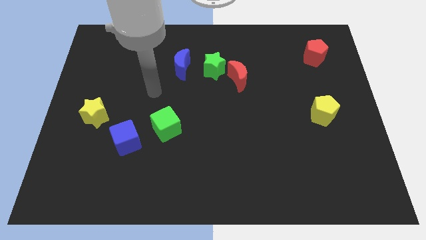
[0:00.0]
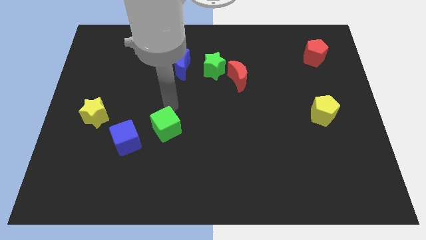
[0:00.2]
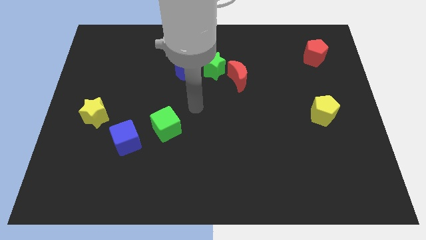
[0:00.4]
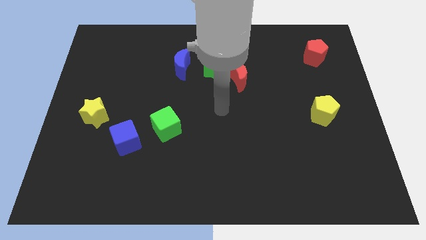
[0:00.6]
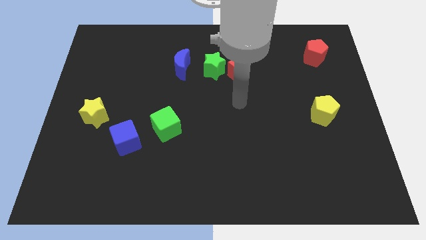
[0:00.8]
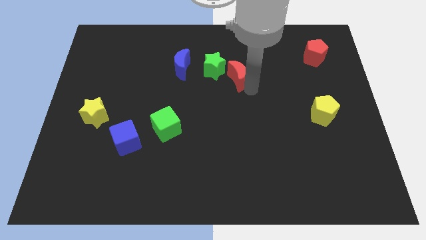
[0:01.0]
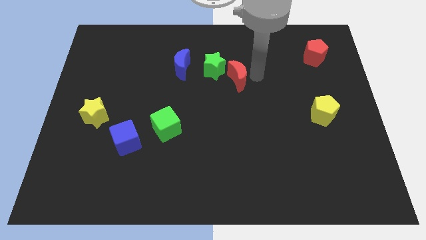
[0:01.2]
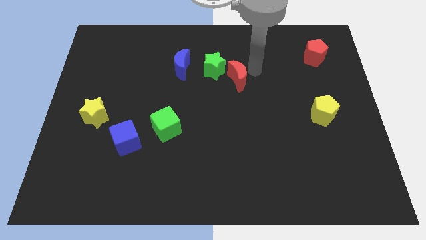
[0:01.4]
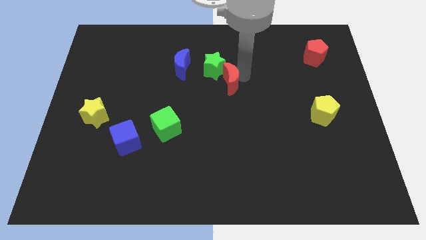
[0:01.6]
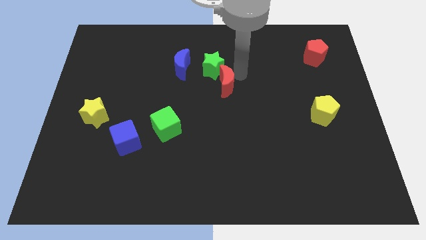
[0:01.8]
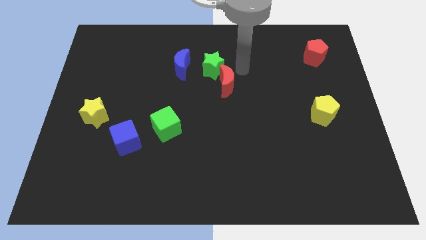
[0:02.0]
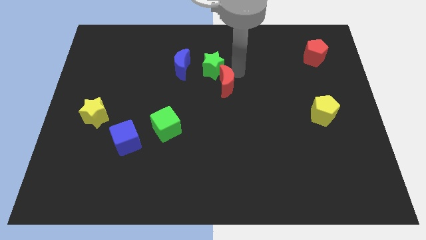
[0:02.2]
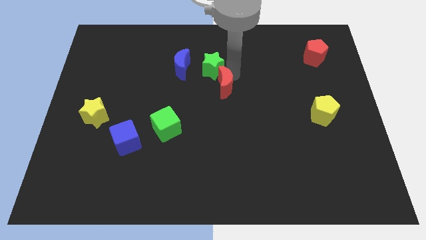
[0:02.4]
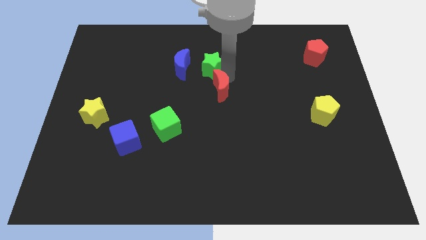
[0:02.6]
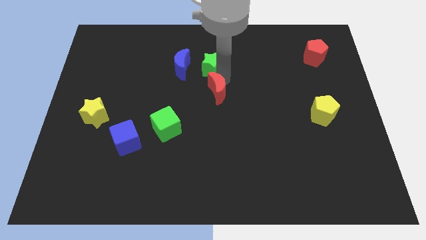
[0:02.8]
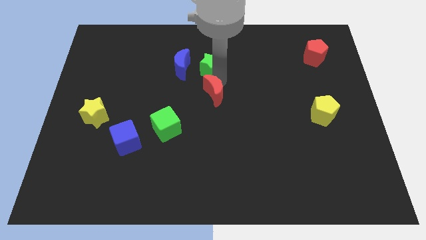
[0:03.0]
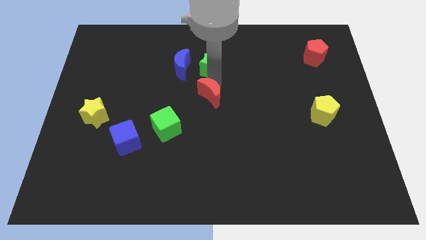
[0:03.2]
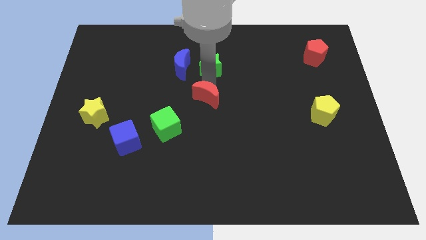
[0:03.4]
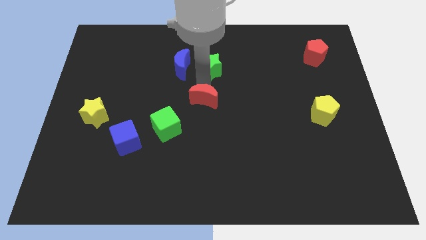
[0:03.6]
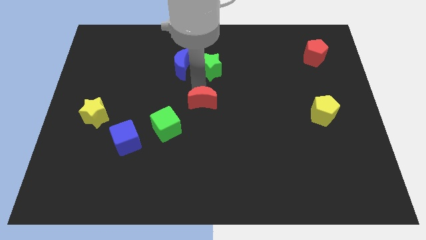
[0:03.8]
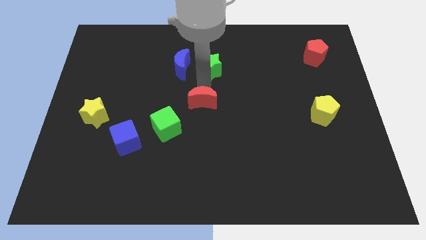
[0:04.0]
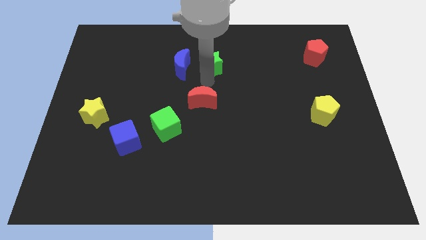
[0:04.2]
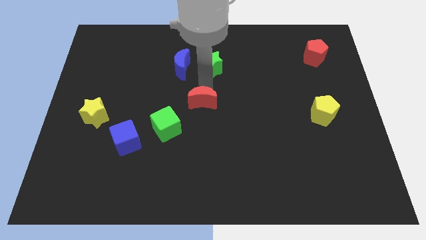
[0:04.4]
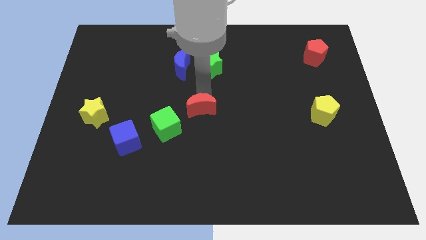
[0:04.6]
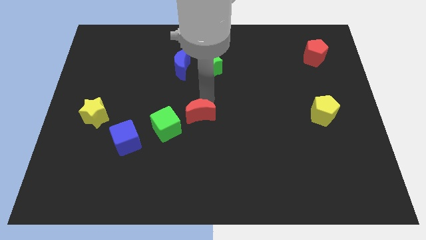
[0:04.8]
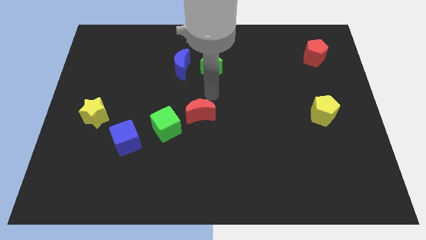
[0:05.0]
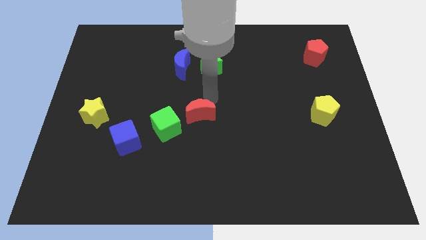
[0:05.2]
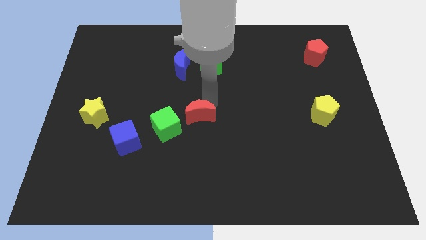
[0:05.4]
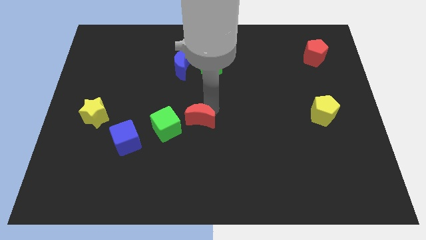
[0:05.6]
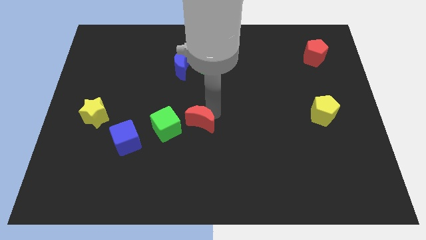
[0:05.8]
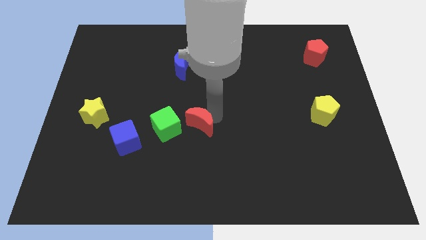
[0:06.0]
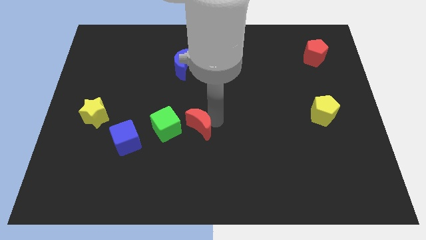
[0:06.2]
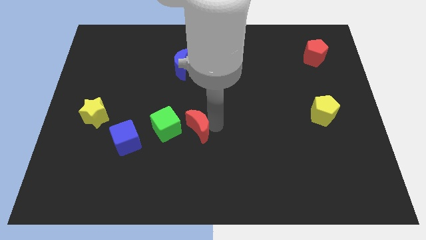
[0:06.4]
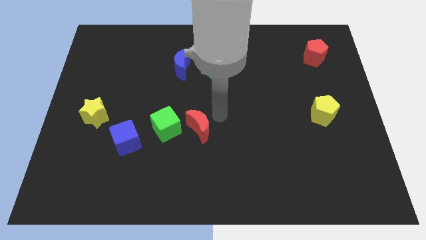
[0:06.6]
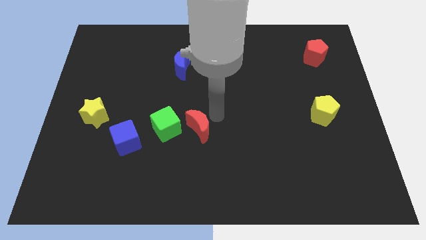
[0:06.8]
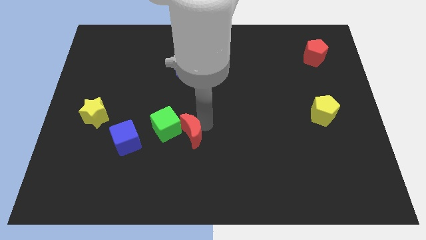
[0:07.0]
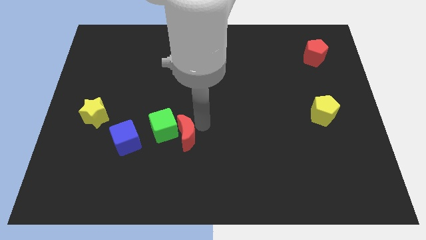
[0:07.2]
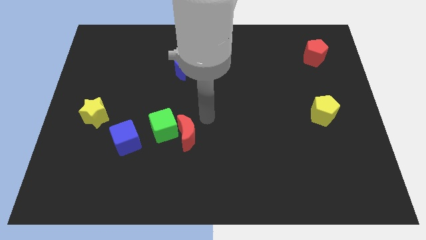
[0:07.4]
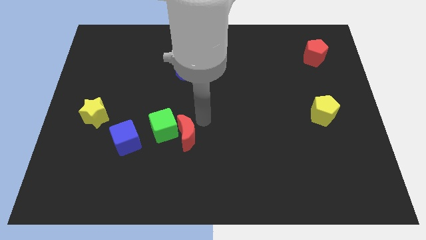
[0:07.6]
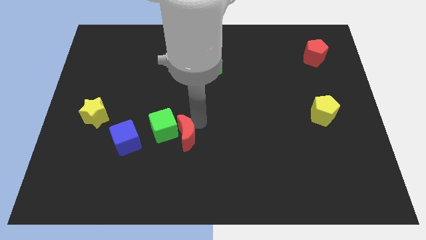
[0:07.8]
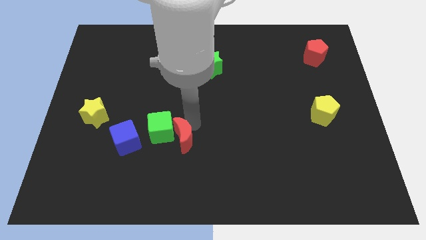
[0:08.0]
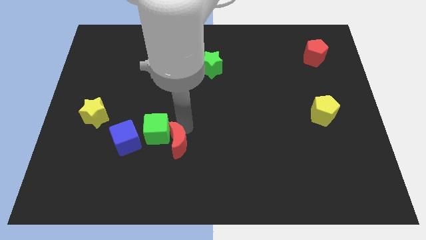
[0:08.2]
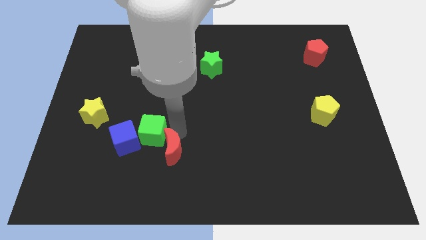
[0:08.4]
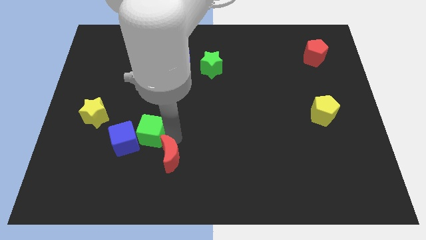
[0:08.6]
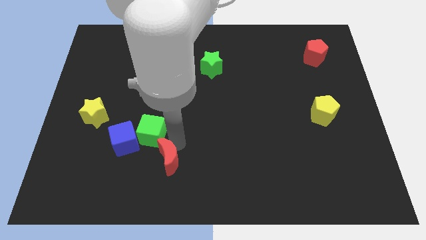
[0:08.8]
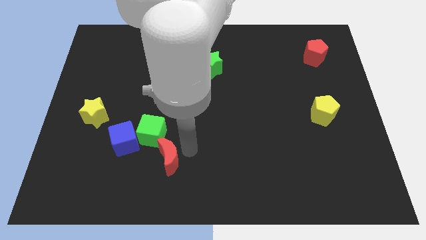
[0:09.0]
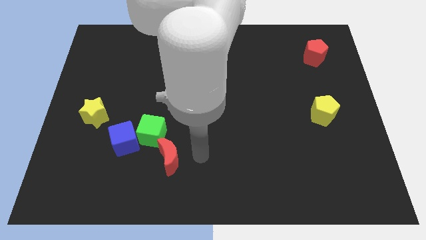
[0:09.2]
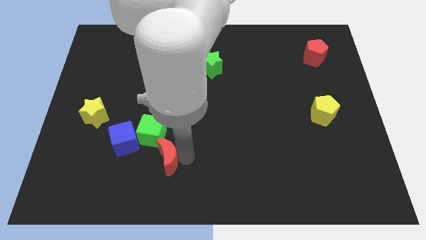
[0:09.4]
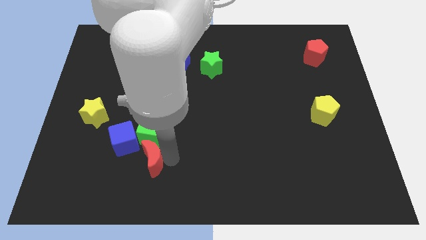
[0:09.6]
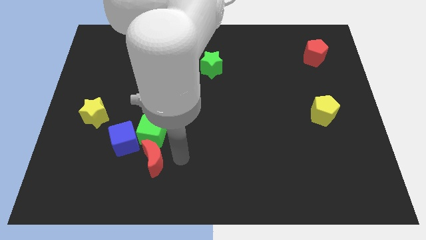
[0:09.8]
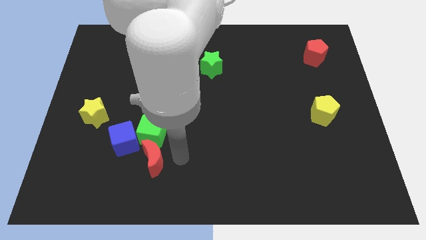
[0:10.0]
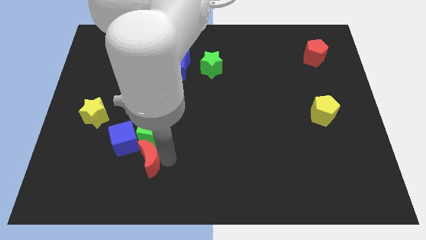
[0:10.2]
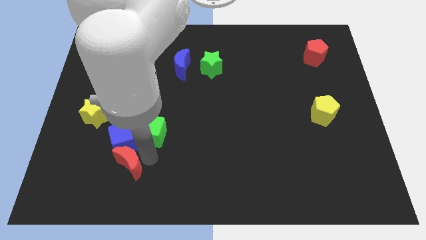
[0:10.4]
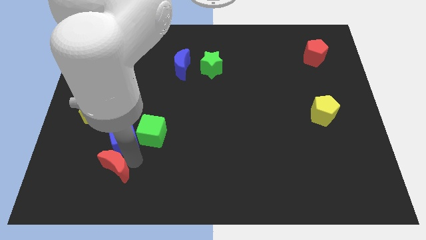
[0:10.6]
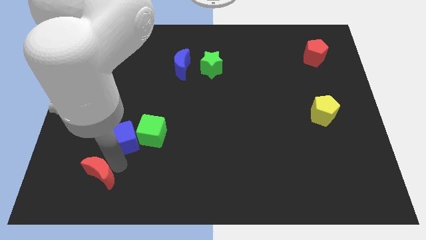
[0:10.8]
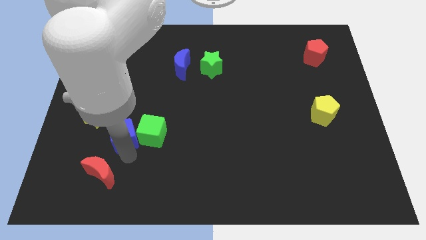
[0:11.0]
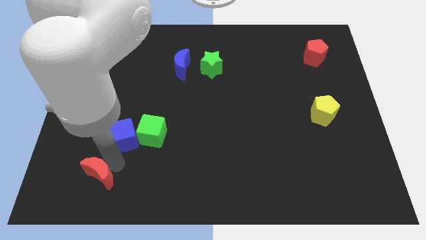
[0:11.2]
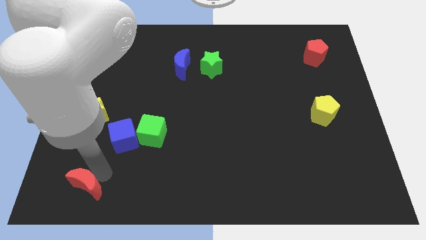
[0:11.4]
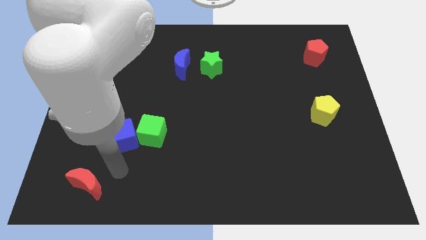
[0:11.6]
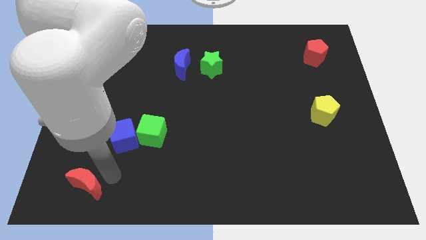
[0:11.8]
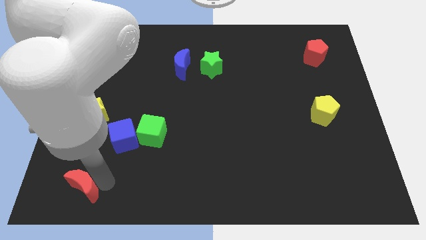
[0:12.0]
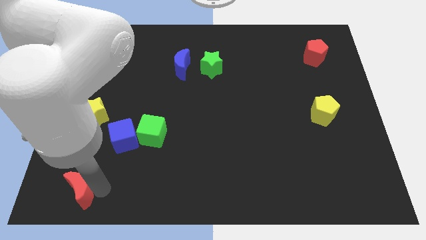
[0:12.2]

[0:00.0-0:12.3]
slide the red moon to the bottom left corner
